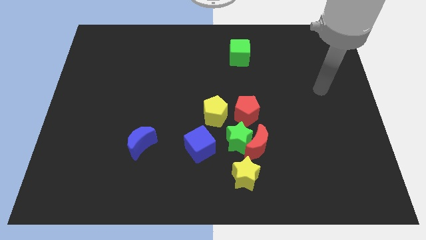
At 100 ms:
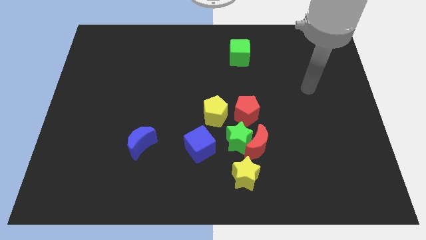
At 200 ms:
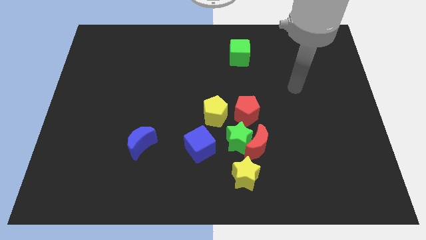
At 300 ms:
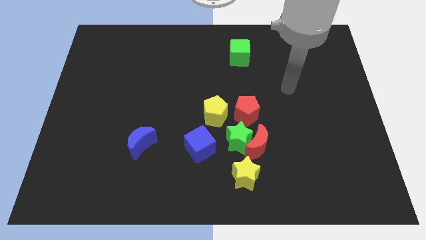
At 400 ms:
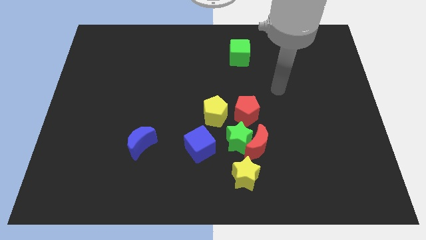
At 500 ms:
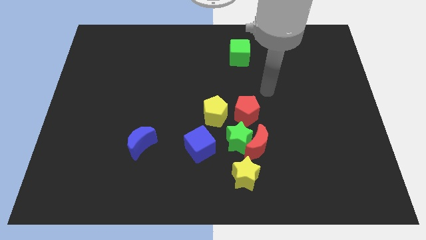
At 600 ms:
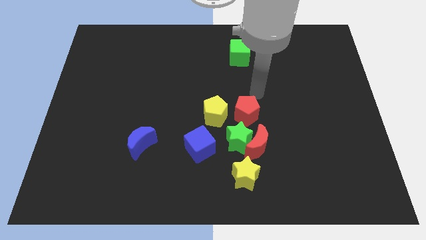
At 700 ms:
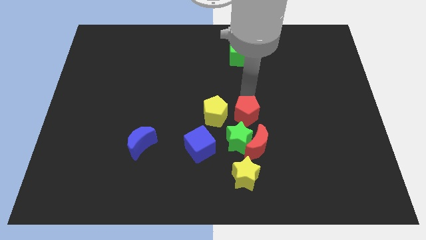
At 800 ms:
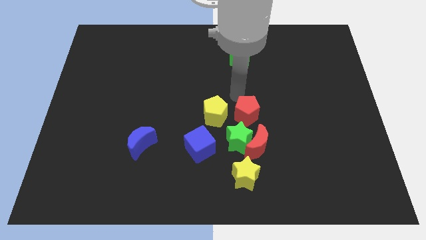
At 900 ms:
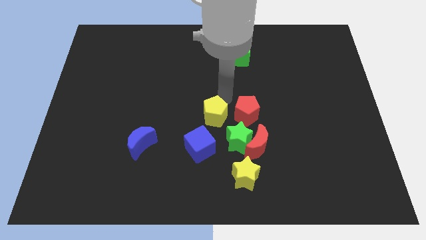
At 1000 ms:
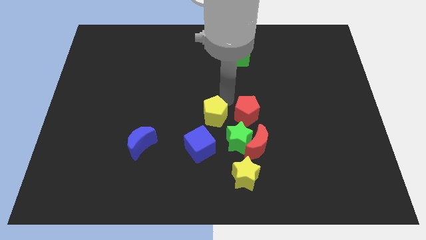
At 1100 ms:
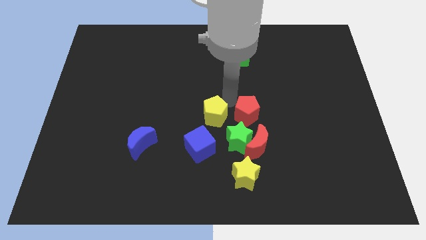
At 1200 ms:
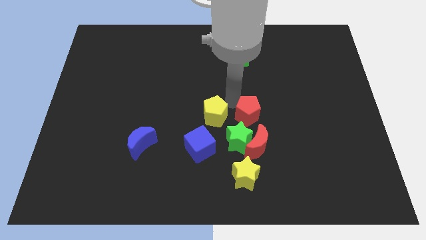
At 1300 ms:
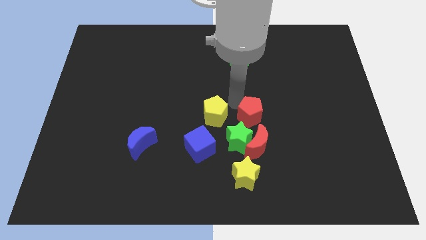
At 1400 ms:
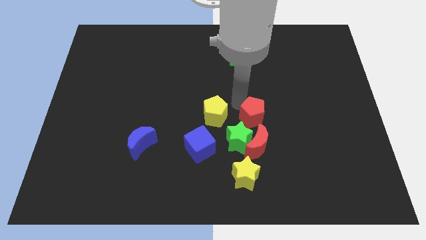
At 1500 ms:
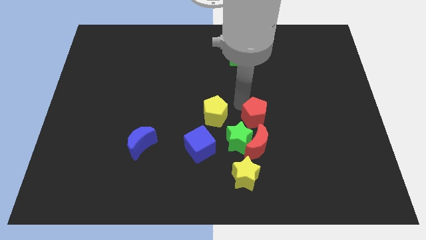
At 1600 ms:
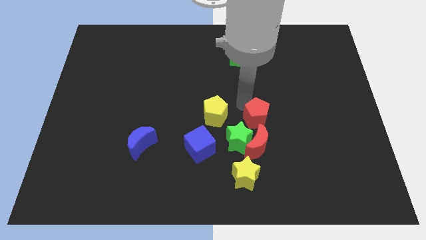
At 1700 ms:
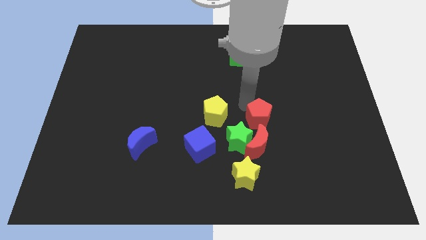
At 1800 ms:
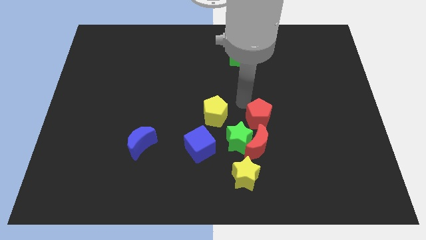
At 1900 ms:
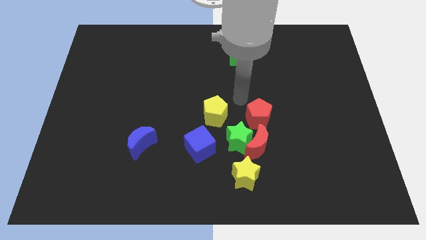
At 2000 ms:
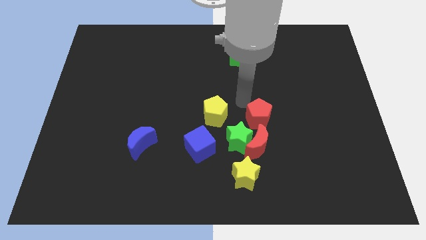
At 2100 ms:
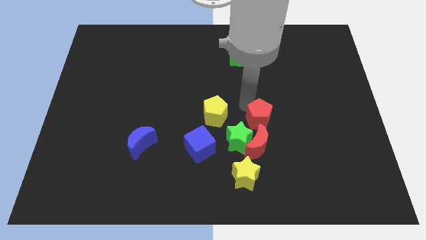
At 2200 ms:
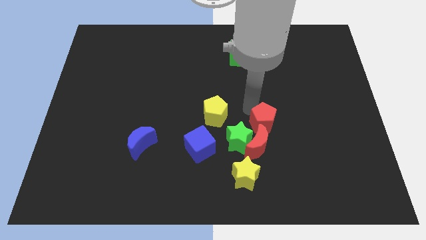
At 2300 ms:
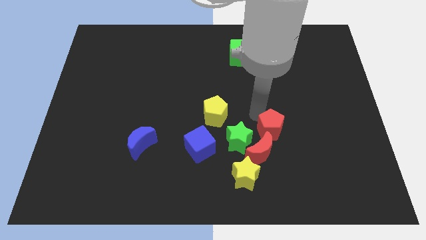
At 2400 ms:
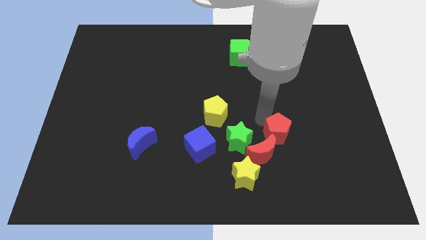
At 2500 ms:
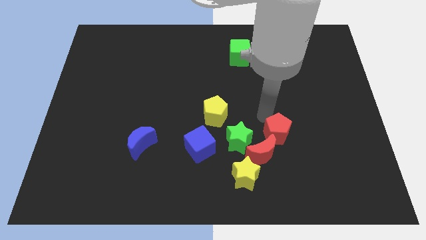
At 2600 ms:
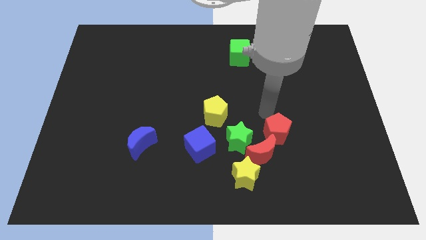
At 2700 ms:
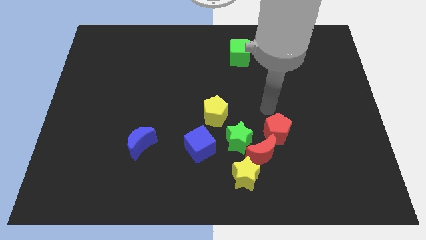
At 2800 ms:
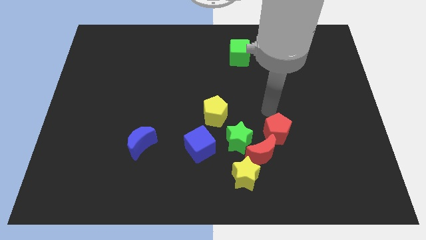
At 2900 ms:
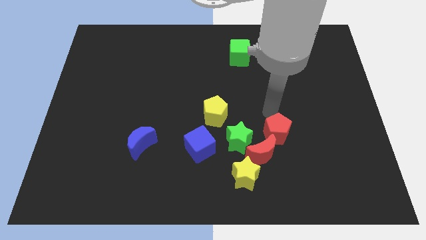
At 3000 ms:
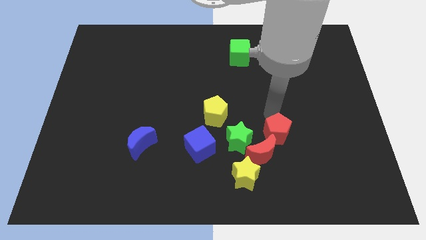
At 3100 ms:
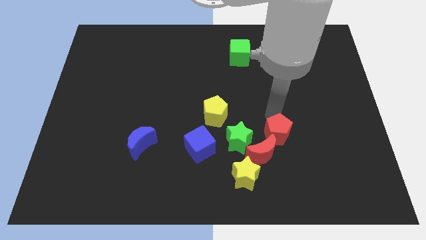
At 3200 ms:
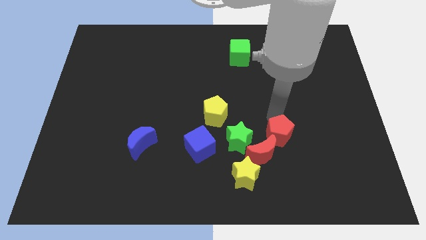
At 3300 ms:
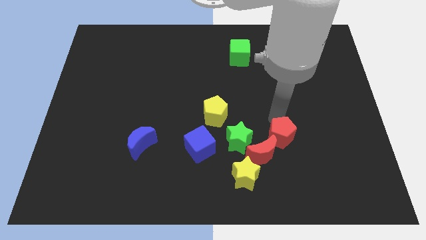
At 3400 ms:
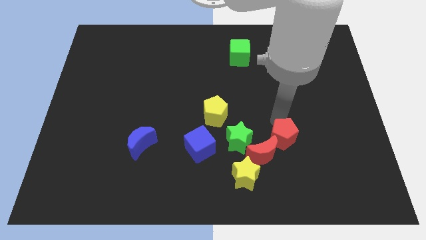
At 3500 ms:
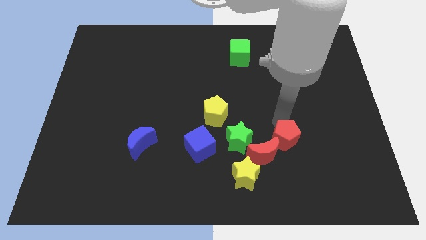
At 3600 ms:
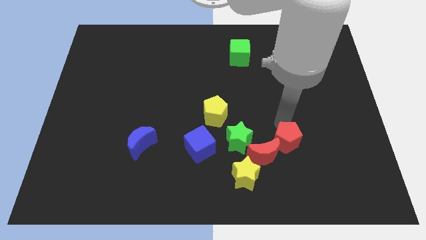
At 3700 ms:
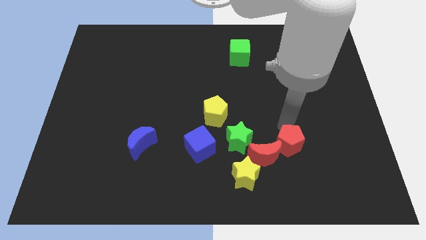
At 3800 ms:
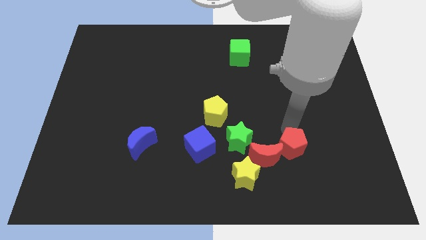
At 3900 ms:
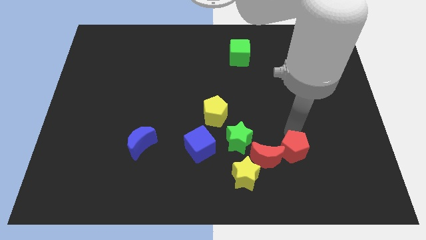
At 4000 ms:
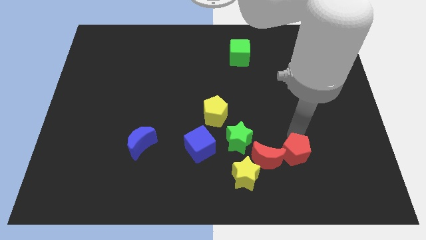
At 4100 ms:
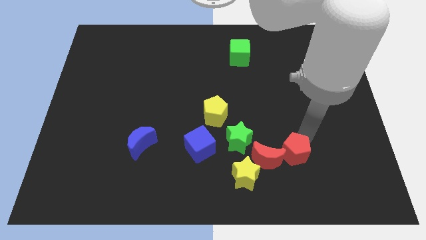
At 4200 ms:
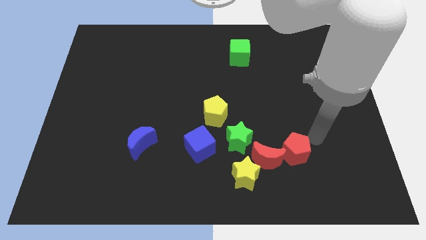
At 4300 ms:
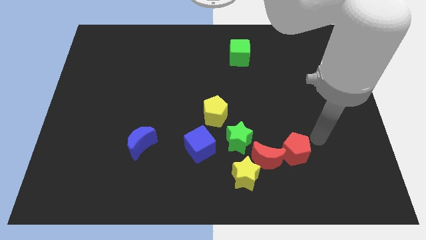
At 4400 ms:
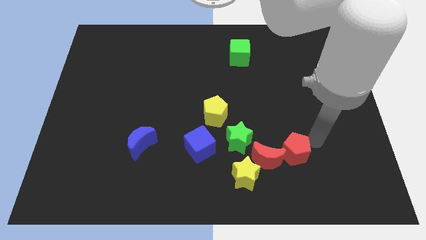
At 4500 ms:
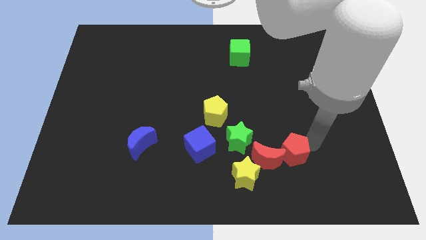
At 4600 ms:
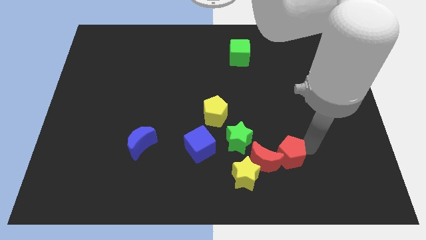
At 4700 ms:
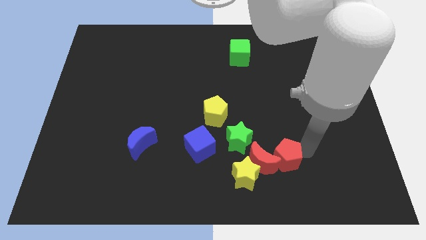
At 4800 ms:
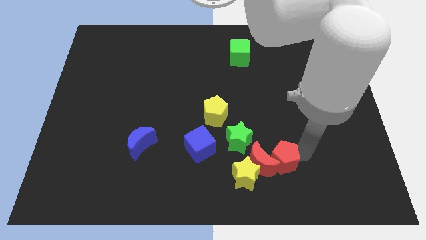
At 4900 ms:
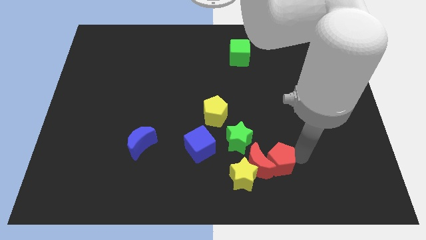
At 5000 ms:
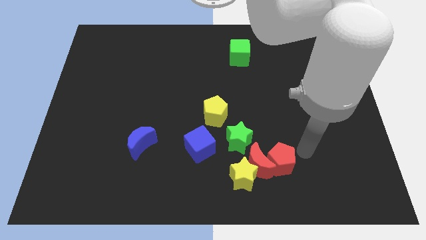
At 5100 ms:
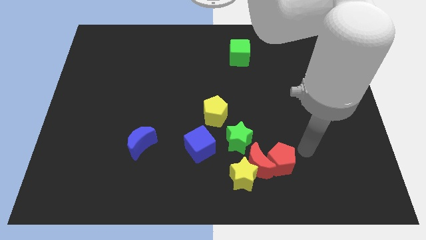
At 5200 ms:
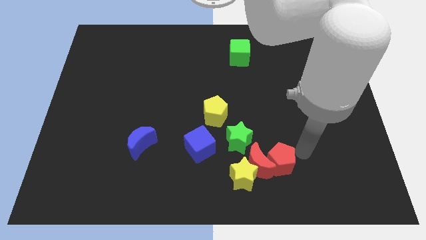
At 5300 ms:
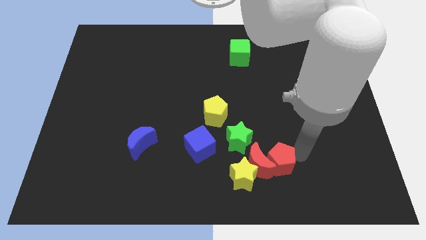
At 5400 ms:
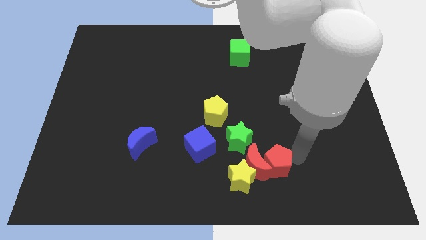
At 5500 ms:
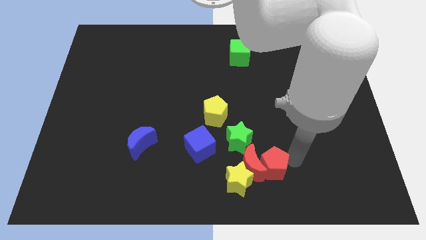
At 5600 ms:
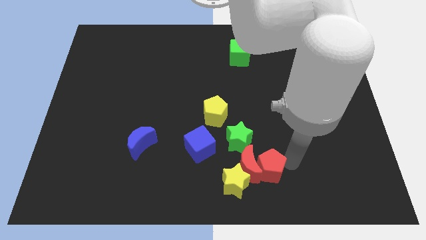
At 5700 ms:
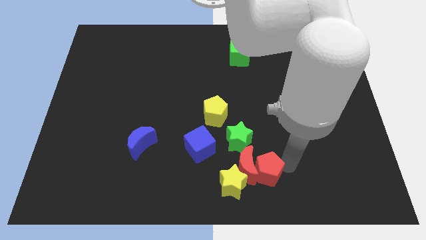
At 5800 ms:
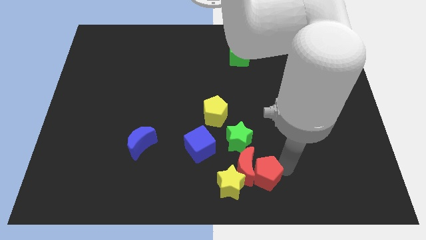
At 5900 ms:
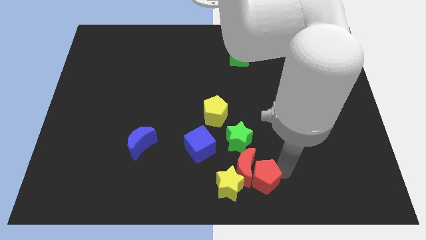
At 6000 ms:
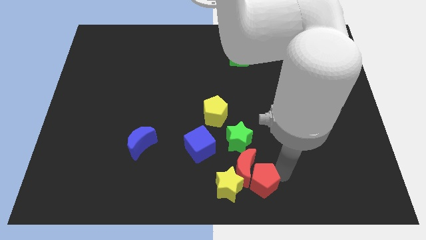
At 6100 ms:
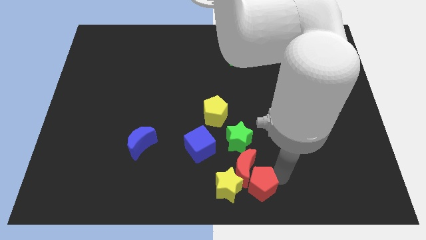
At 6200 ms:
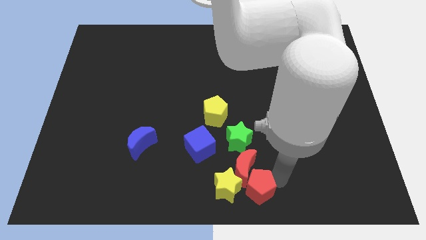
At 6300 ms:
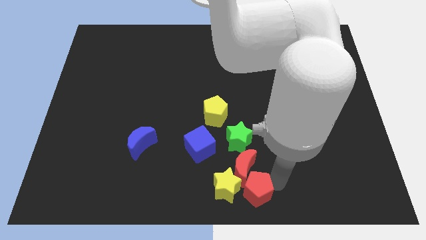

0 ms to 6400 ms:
push the red pentagon to the yellow star

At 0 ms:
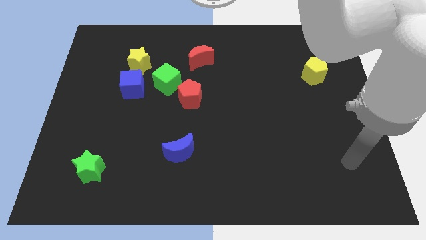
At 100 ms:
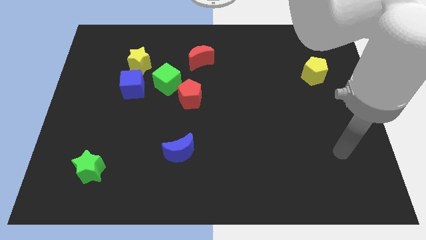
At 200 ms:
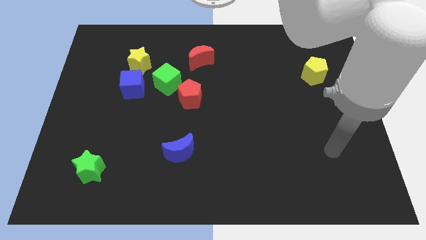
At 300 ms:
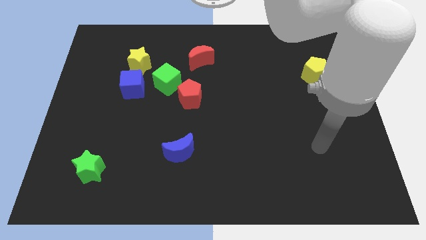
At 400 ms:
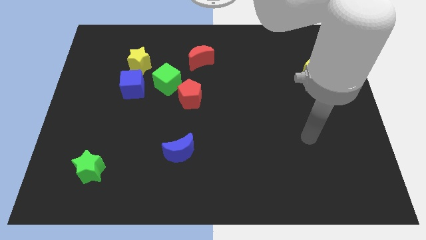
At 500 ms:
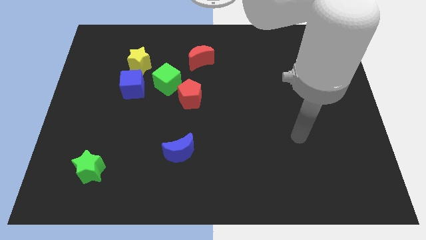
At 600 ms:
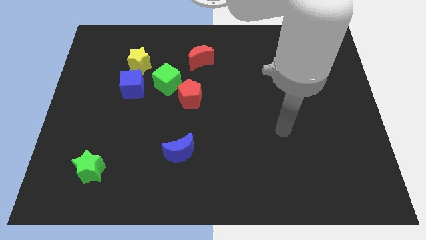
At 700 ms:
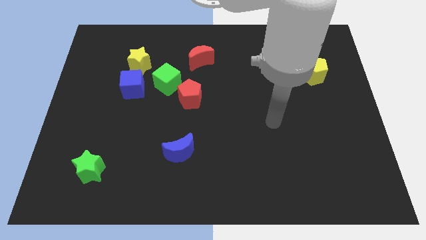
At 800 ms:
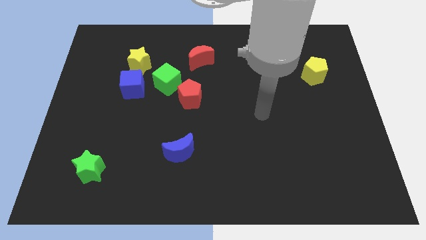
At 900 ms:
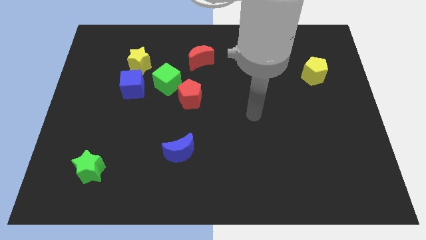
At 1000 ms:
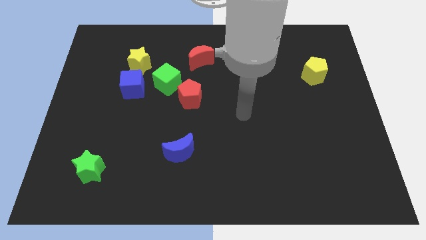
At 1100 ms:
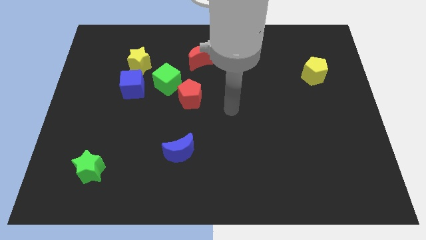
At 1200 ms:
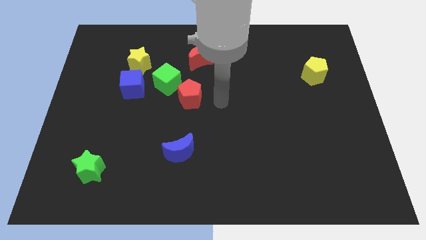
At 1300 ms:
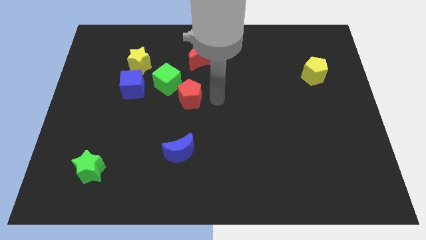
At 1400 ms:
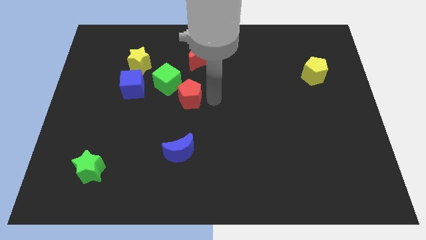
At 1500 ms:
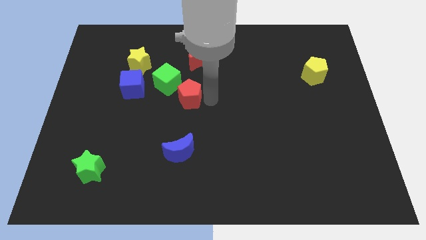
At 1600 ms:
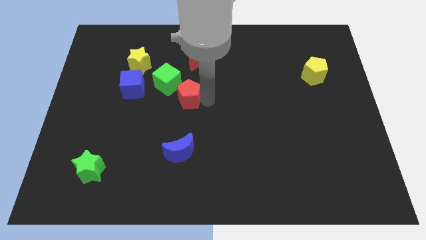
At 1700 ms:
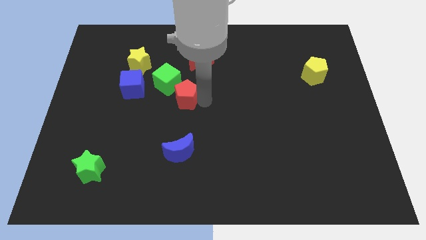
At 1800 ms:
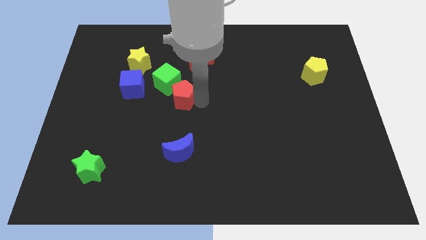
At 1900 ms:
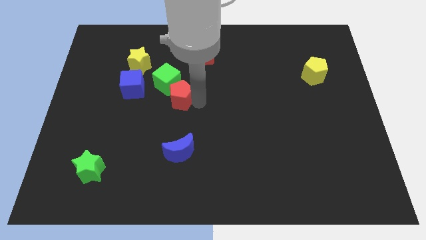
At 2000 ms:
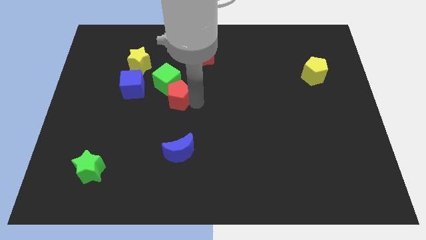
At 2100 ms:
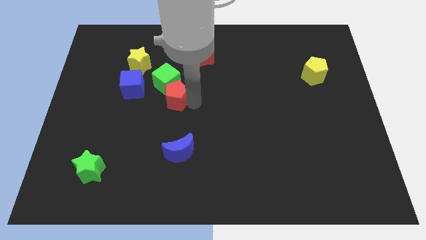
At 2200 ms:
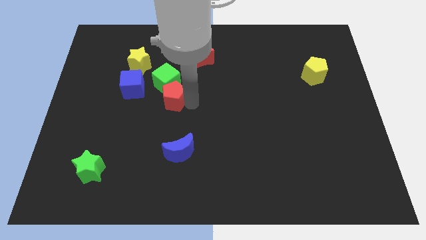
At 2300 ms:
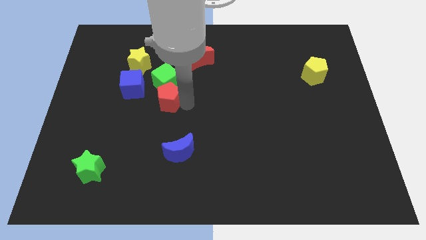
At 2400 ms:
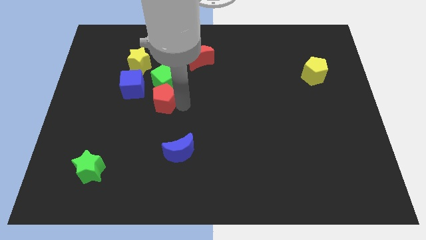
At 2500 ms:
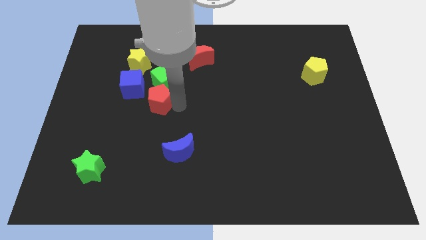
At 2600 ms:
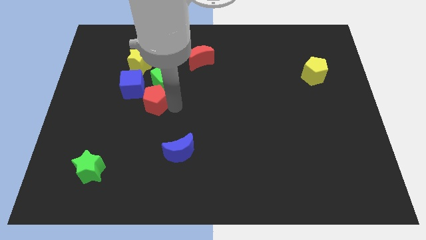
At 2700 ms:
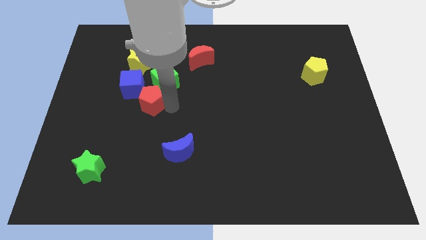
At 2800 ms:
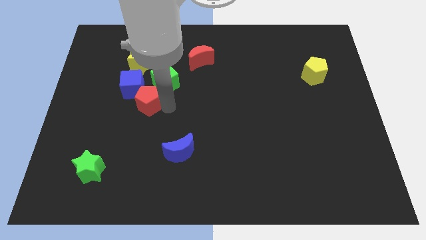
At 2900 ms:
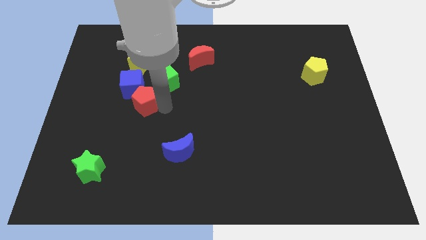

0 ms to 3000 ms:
move the red pentagon to the blue cube
